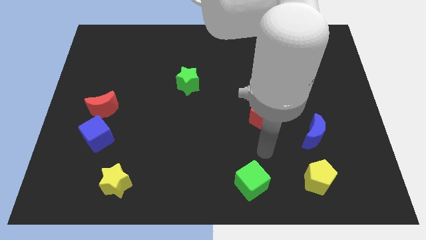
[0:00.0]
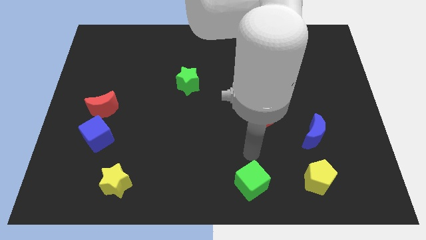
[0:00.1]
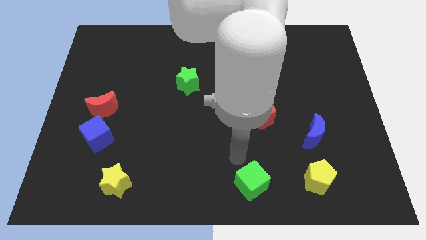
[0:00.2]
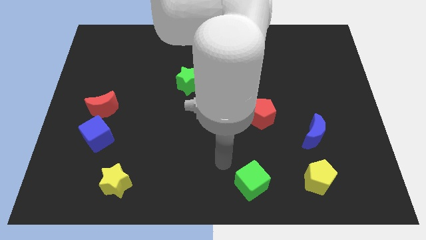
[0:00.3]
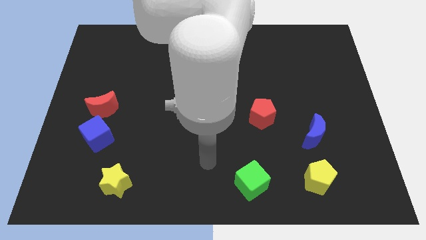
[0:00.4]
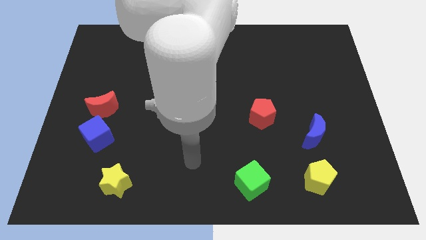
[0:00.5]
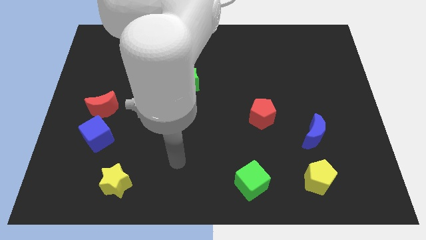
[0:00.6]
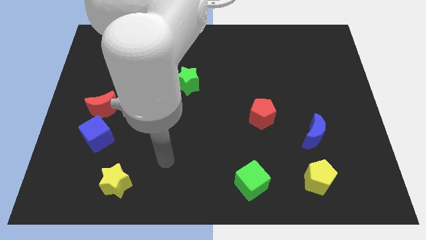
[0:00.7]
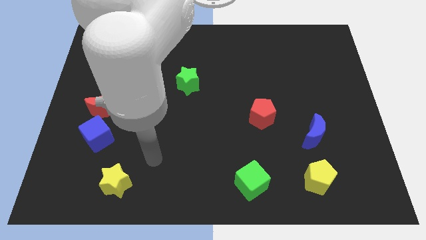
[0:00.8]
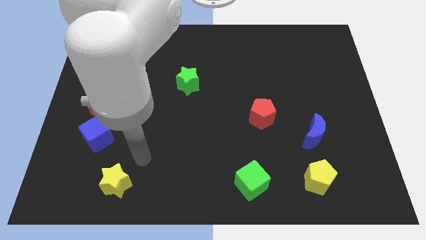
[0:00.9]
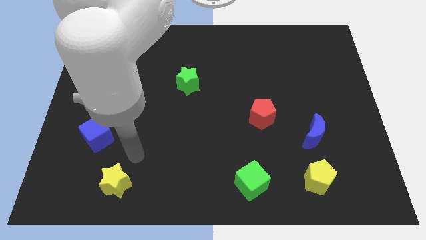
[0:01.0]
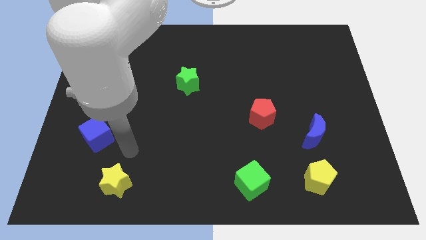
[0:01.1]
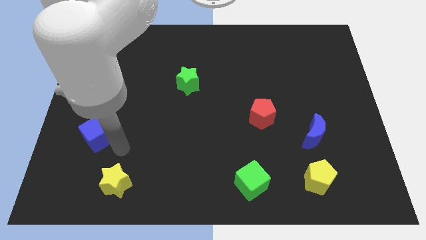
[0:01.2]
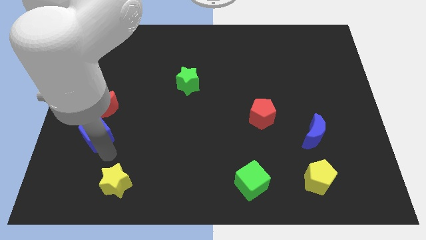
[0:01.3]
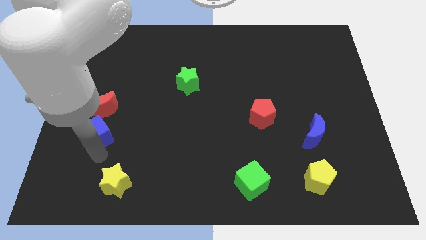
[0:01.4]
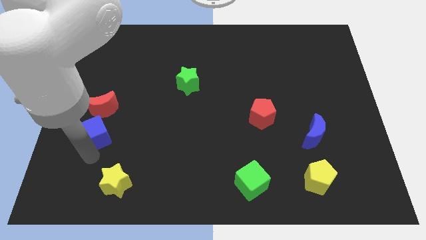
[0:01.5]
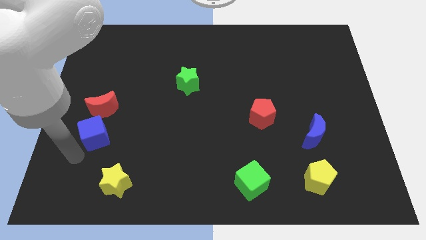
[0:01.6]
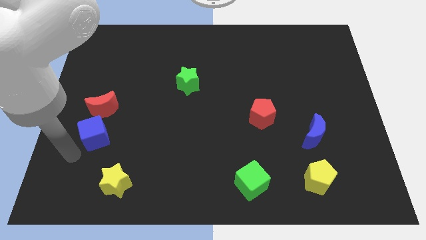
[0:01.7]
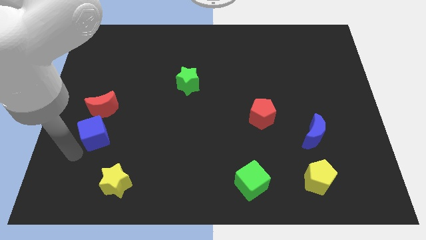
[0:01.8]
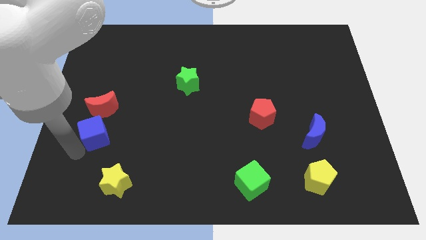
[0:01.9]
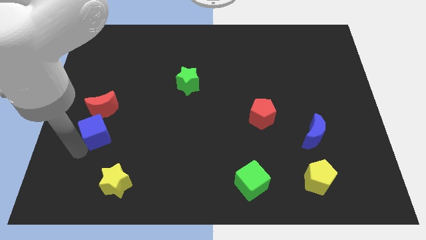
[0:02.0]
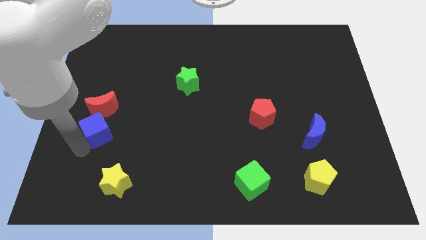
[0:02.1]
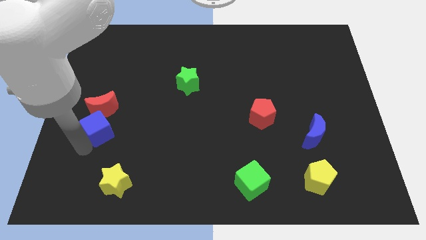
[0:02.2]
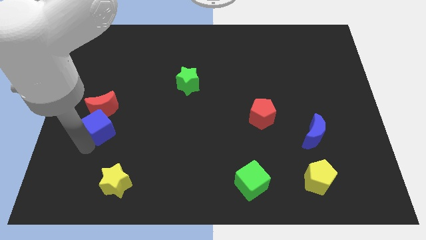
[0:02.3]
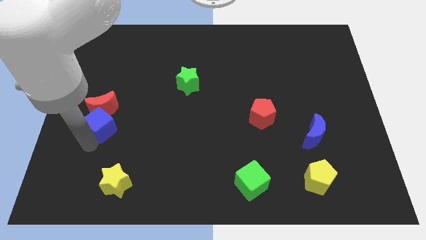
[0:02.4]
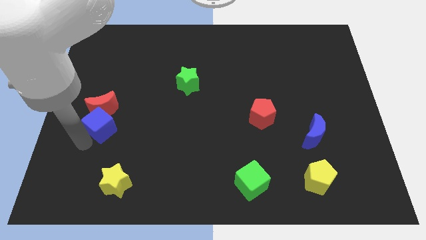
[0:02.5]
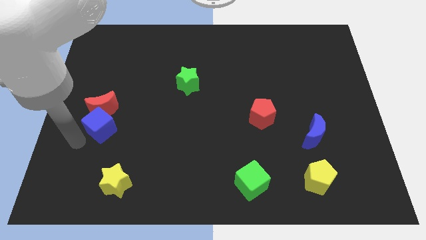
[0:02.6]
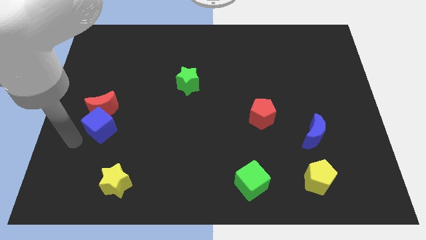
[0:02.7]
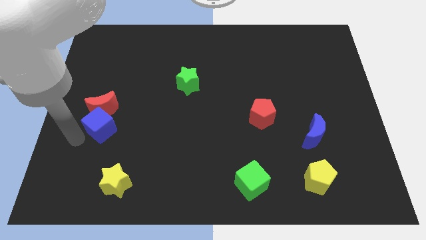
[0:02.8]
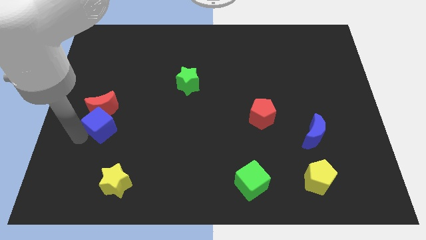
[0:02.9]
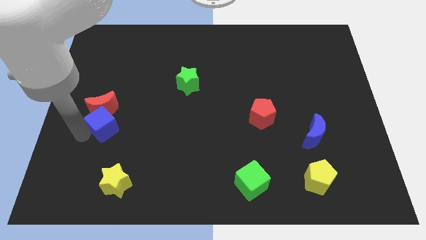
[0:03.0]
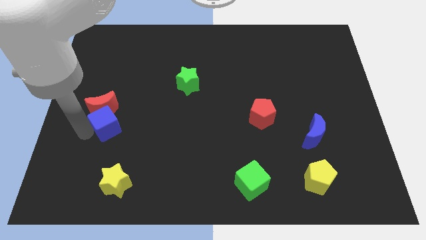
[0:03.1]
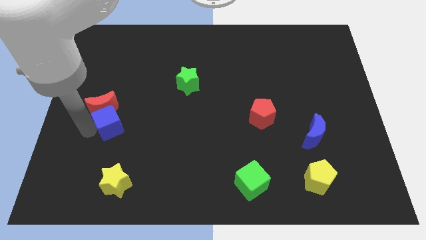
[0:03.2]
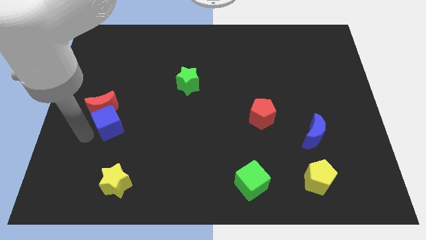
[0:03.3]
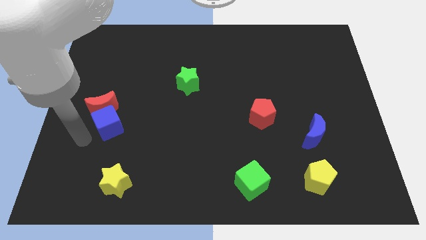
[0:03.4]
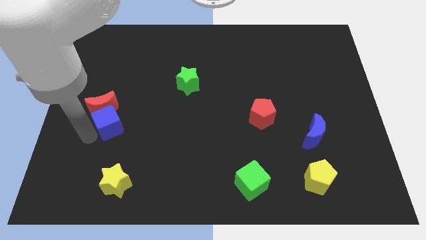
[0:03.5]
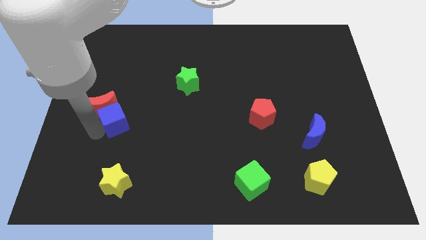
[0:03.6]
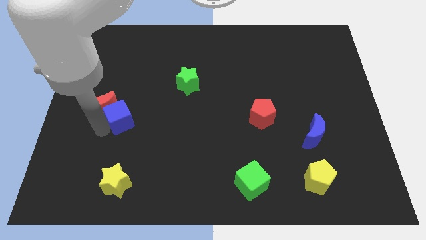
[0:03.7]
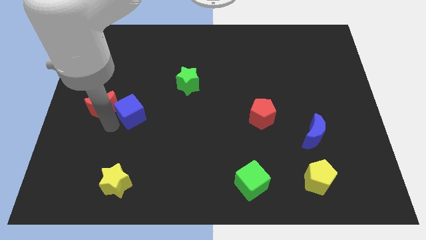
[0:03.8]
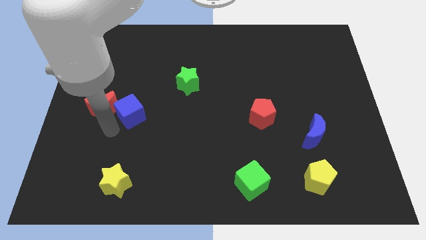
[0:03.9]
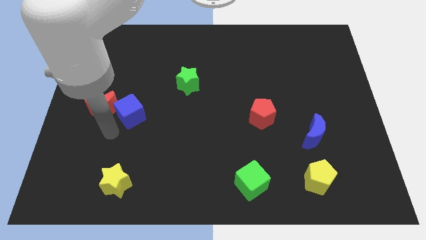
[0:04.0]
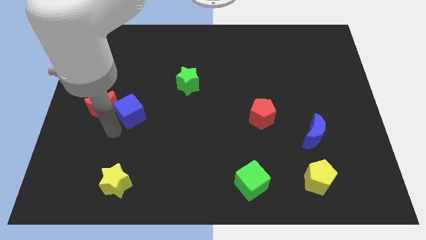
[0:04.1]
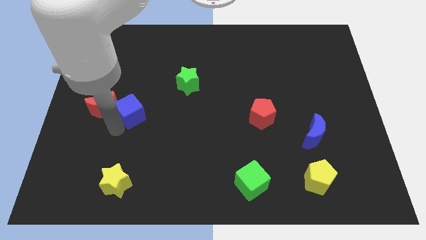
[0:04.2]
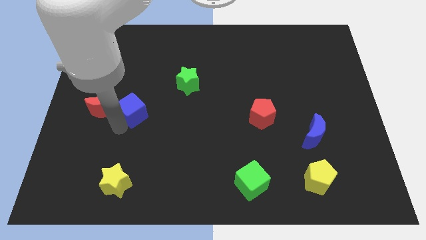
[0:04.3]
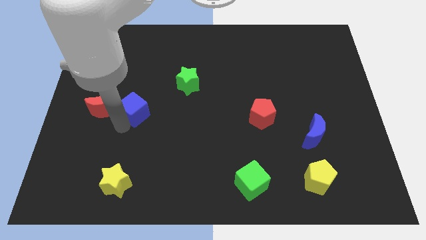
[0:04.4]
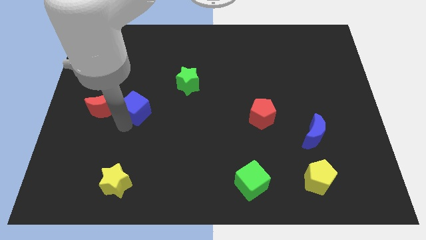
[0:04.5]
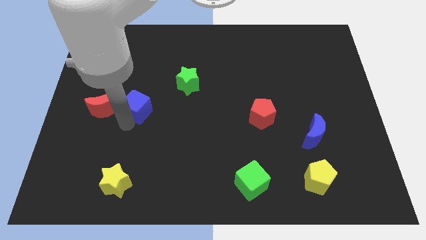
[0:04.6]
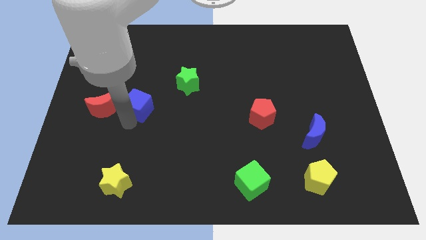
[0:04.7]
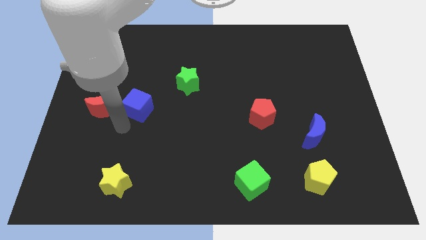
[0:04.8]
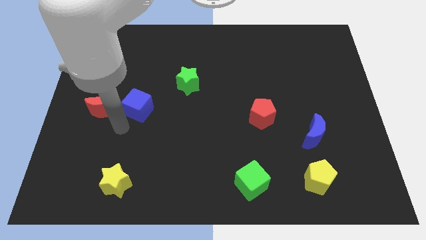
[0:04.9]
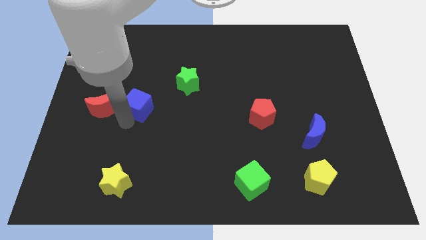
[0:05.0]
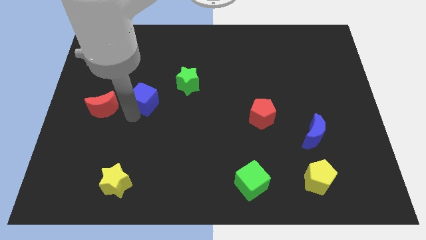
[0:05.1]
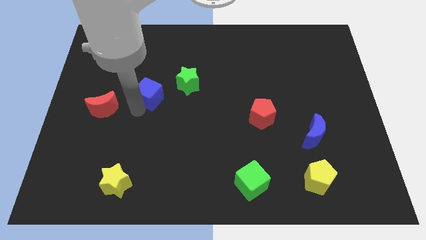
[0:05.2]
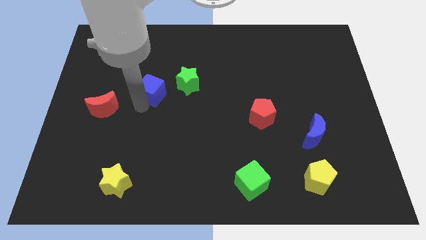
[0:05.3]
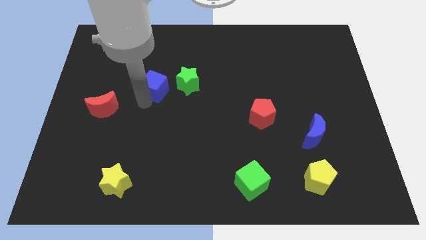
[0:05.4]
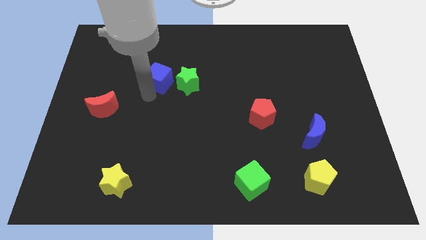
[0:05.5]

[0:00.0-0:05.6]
move the blue cube up and to the right diagonally

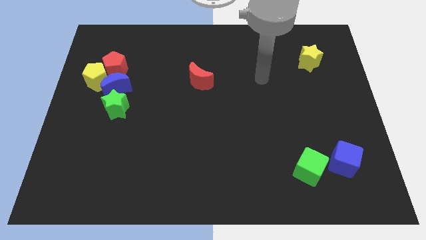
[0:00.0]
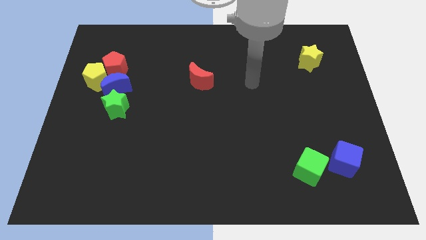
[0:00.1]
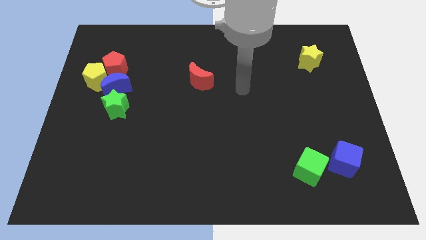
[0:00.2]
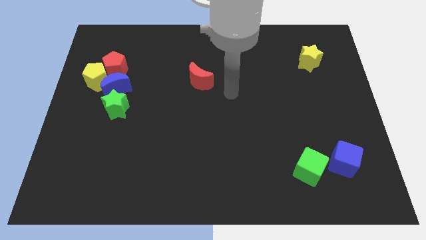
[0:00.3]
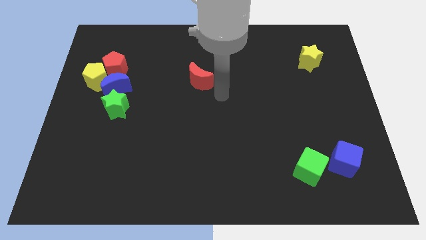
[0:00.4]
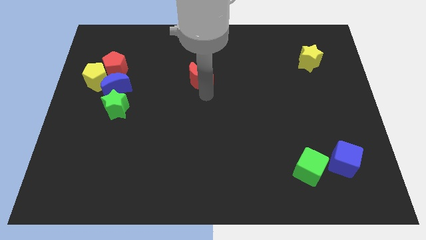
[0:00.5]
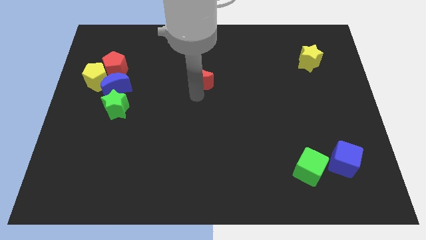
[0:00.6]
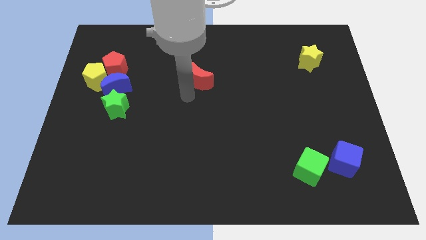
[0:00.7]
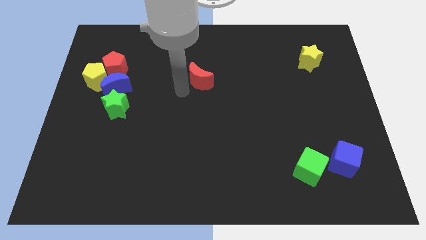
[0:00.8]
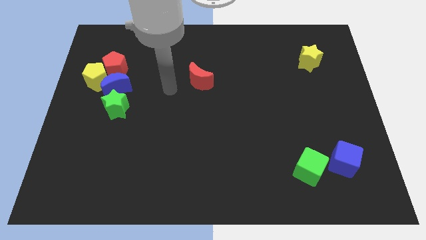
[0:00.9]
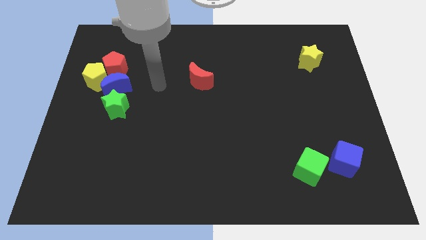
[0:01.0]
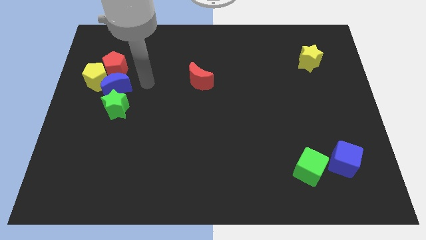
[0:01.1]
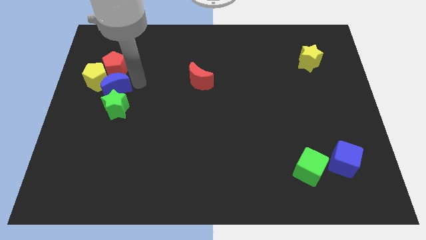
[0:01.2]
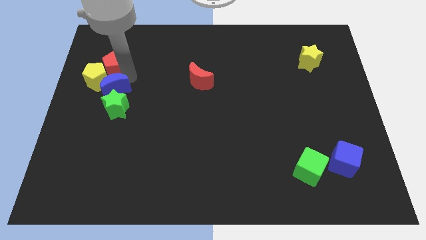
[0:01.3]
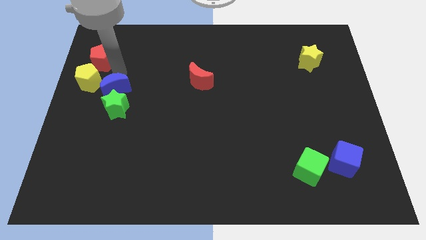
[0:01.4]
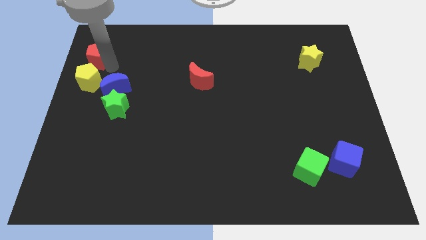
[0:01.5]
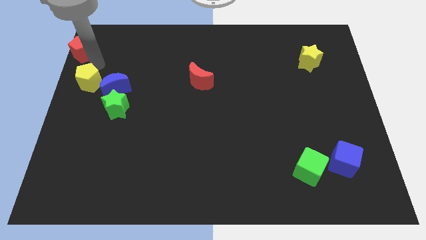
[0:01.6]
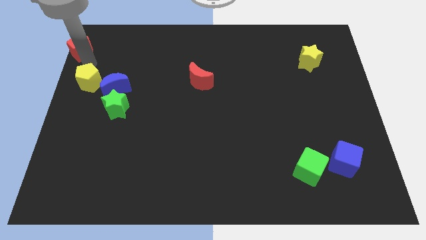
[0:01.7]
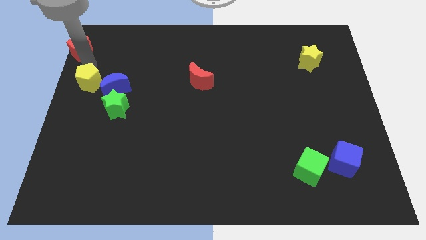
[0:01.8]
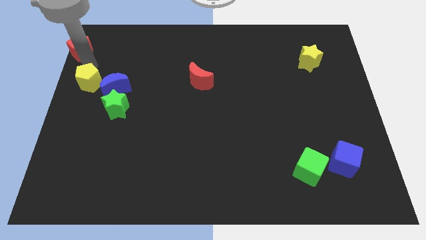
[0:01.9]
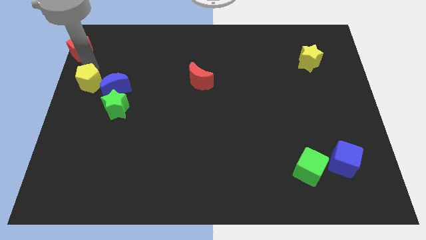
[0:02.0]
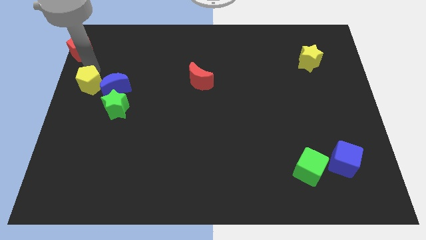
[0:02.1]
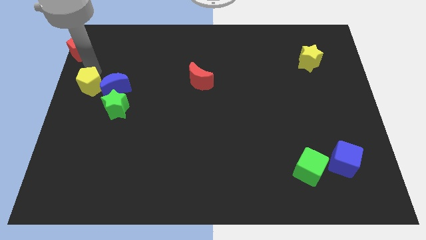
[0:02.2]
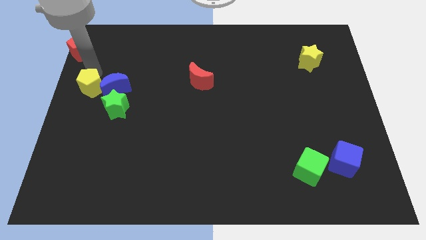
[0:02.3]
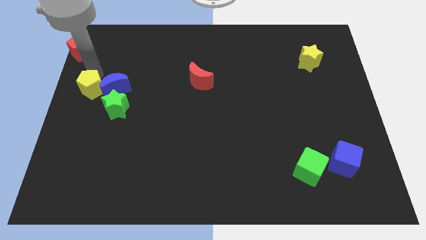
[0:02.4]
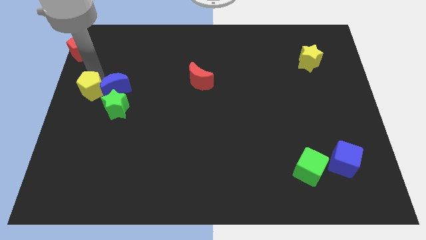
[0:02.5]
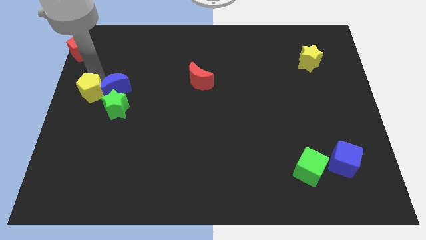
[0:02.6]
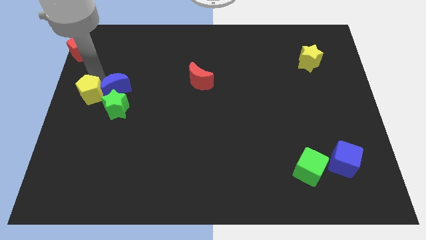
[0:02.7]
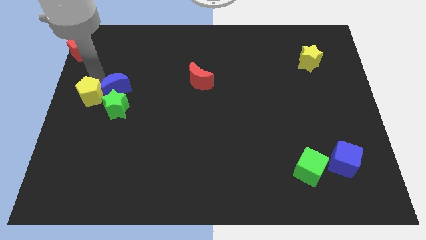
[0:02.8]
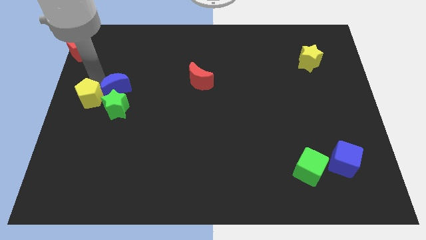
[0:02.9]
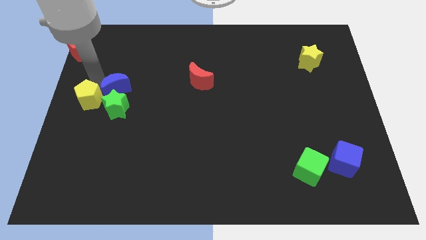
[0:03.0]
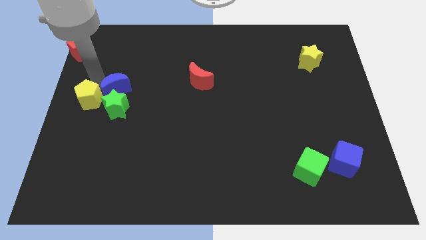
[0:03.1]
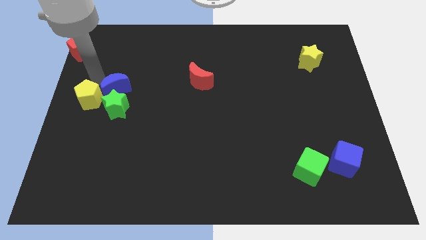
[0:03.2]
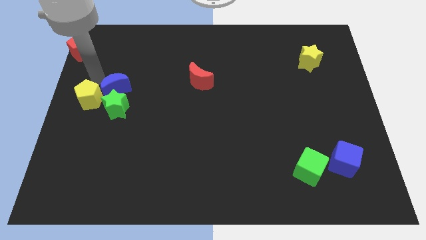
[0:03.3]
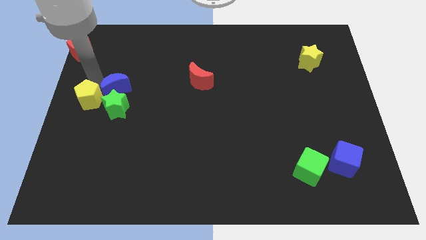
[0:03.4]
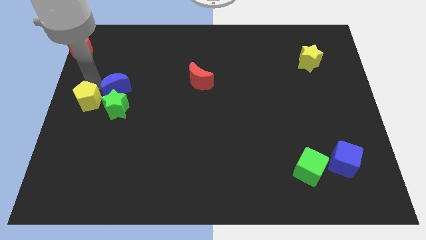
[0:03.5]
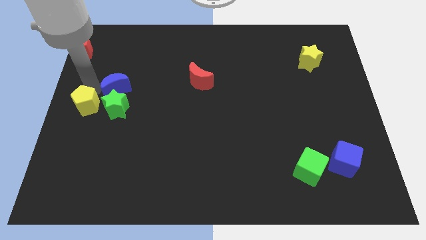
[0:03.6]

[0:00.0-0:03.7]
slide the yellow pentagon down slightly
